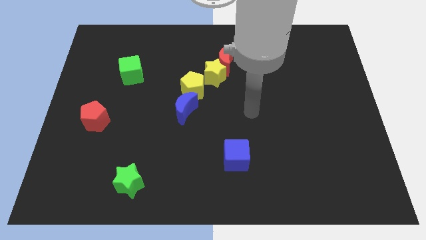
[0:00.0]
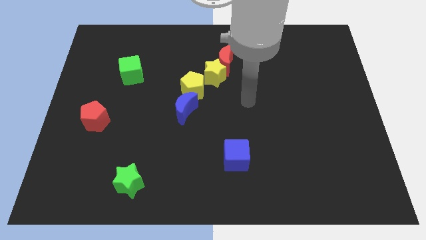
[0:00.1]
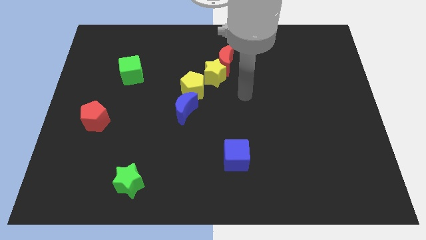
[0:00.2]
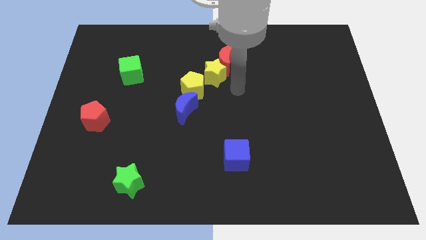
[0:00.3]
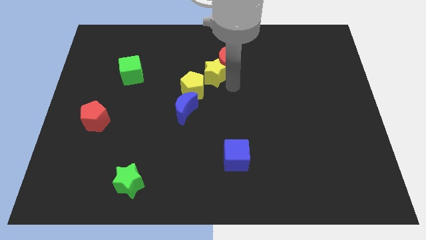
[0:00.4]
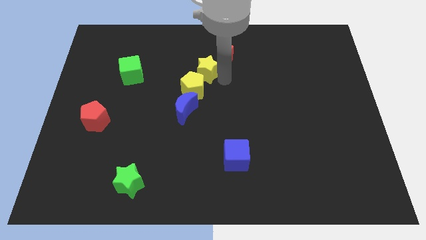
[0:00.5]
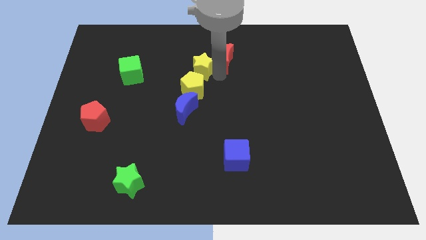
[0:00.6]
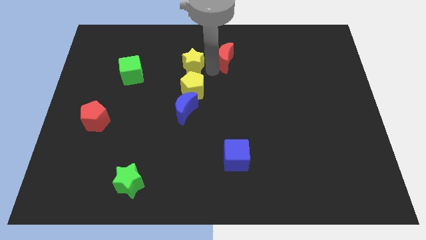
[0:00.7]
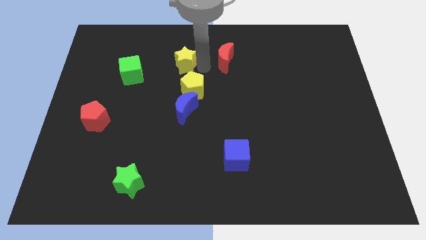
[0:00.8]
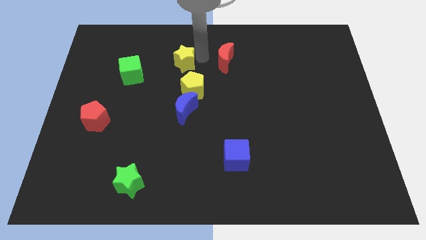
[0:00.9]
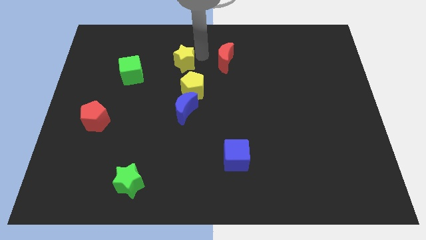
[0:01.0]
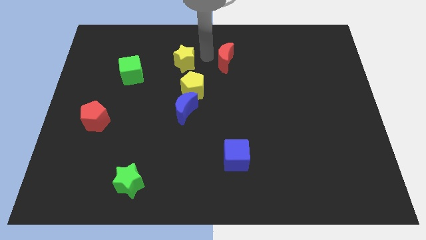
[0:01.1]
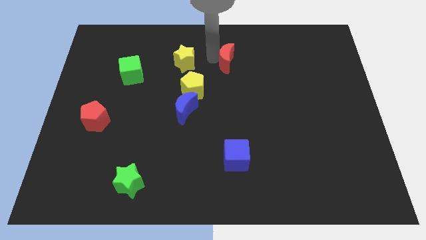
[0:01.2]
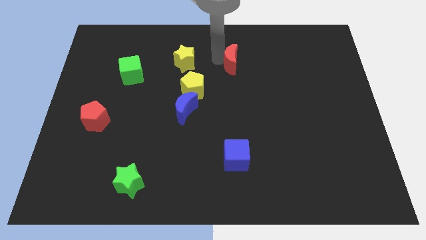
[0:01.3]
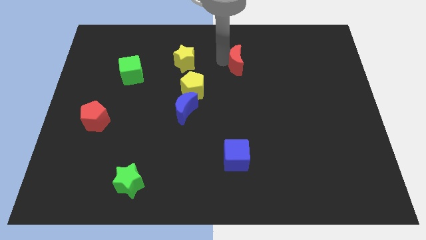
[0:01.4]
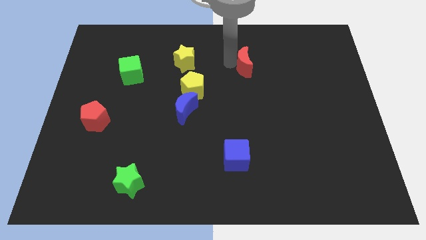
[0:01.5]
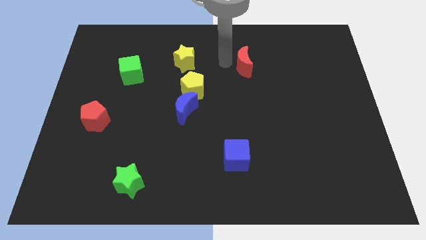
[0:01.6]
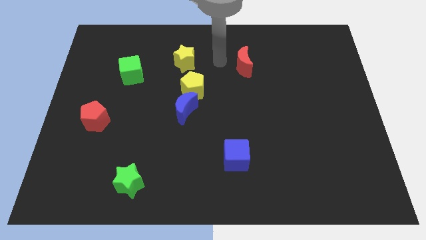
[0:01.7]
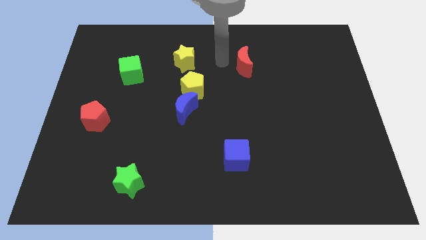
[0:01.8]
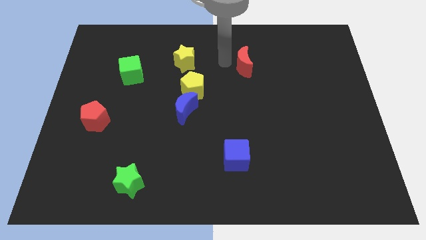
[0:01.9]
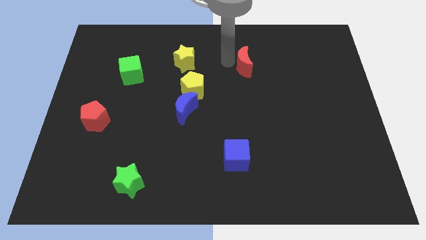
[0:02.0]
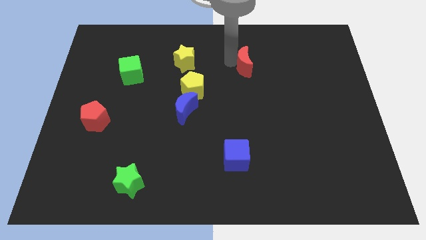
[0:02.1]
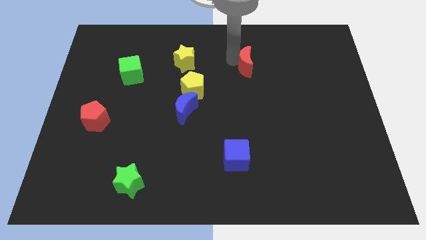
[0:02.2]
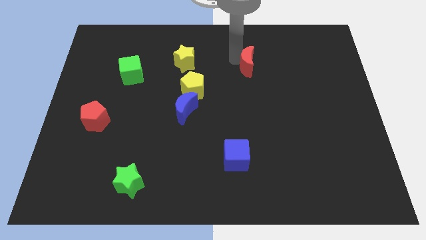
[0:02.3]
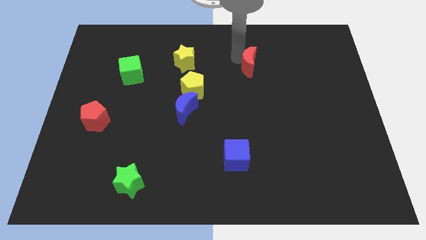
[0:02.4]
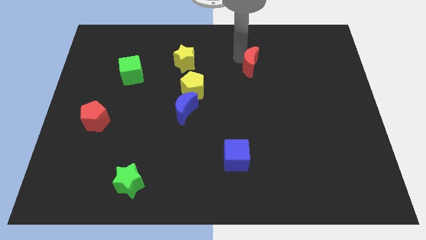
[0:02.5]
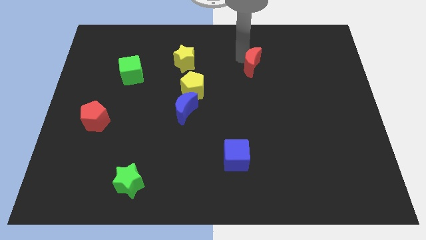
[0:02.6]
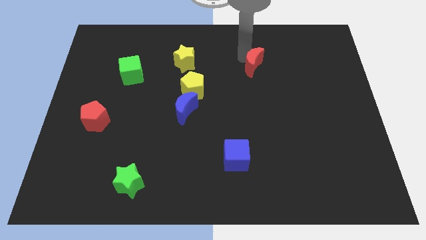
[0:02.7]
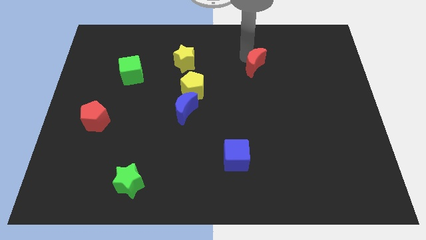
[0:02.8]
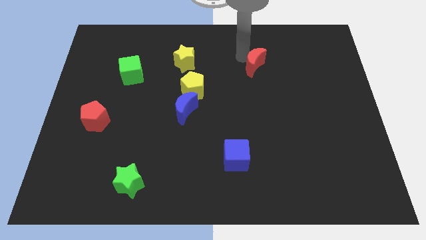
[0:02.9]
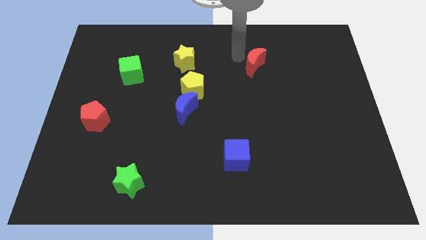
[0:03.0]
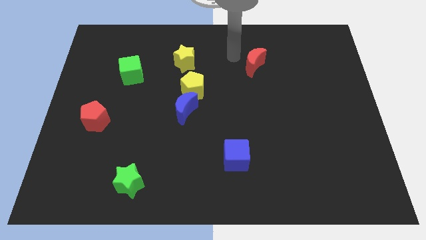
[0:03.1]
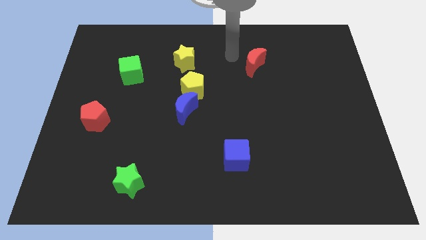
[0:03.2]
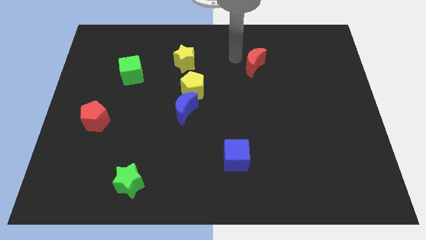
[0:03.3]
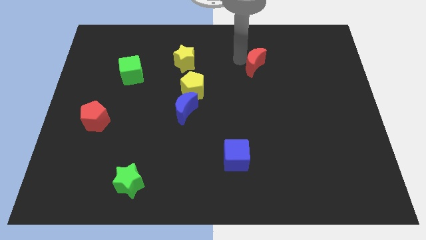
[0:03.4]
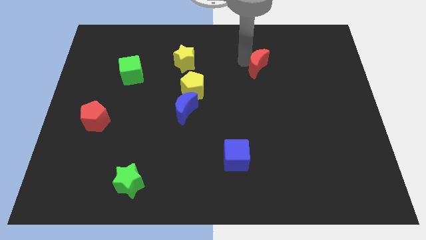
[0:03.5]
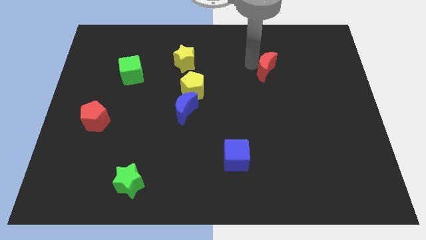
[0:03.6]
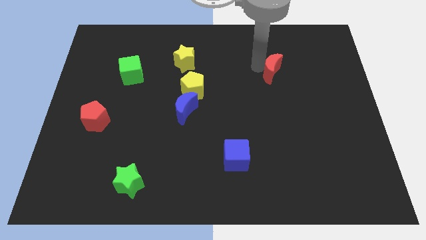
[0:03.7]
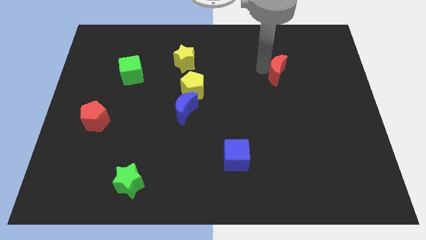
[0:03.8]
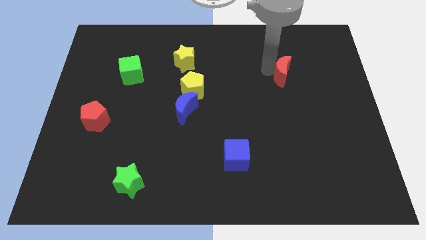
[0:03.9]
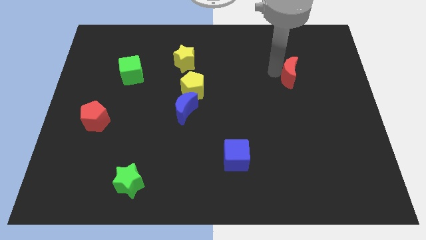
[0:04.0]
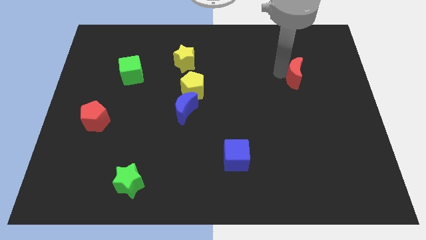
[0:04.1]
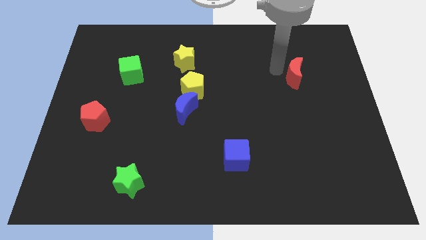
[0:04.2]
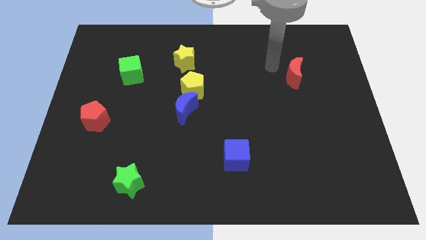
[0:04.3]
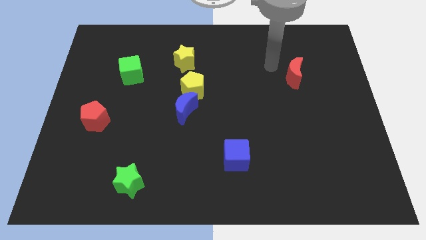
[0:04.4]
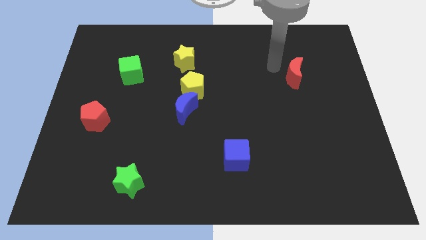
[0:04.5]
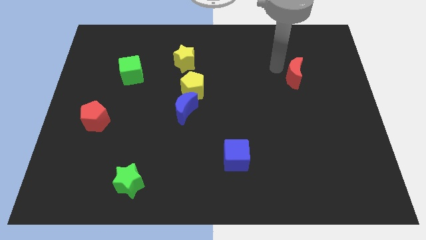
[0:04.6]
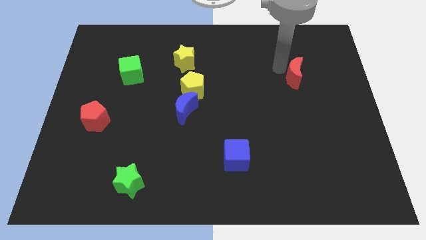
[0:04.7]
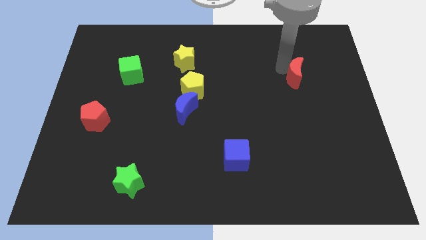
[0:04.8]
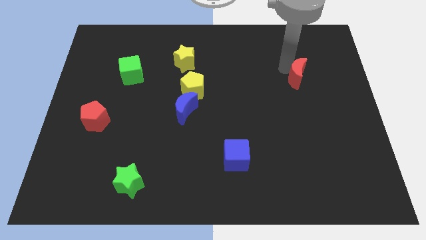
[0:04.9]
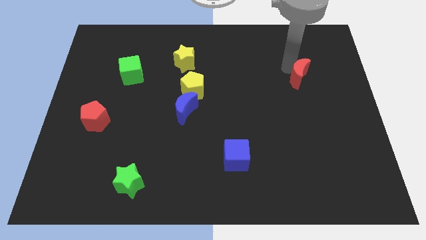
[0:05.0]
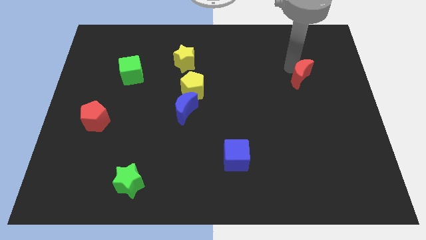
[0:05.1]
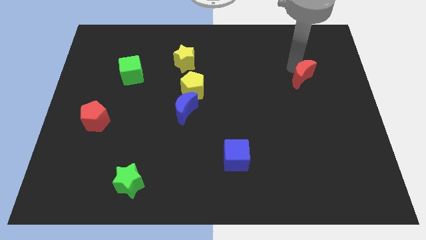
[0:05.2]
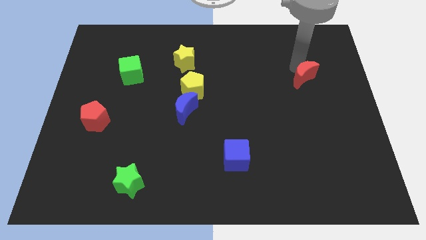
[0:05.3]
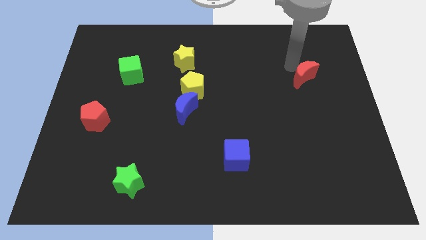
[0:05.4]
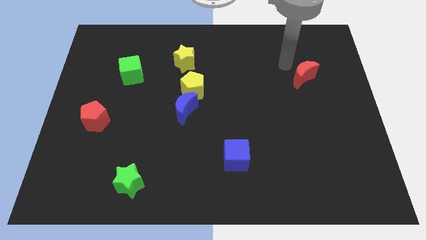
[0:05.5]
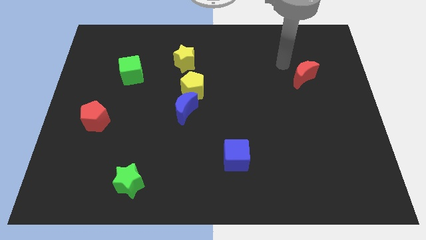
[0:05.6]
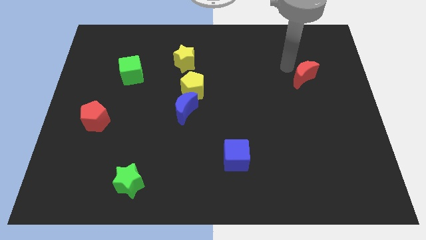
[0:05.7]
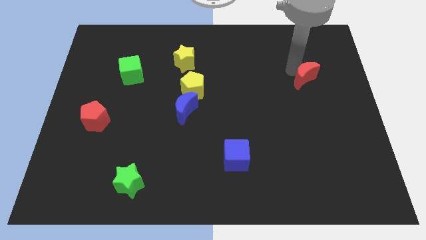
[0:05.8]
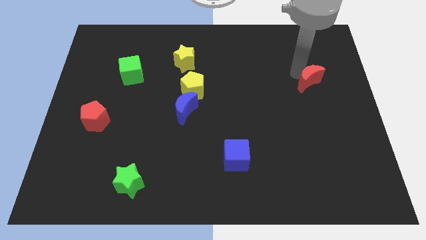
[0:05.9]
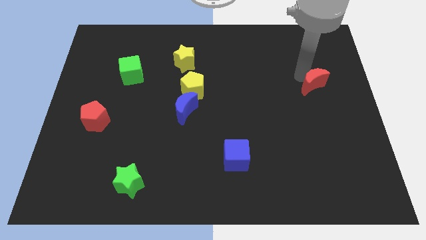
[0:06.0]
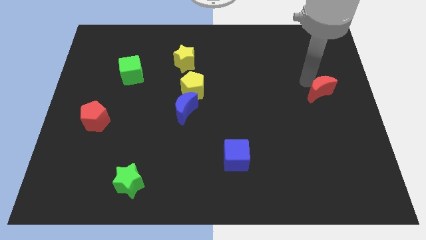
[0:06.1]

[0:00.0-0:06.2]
slide the red moon to the center right
